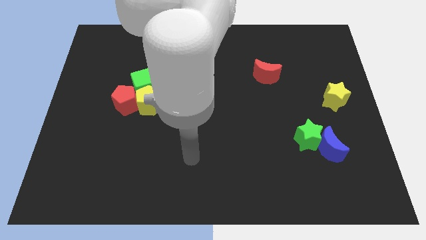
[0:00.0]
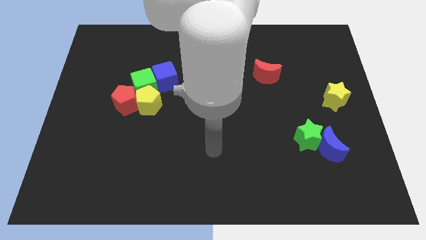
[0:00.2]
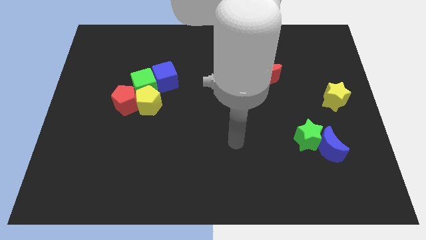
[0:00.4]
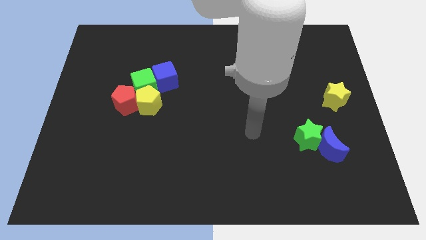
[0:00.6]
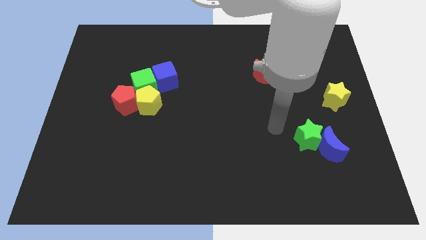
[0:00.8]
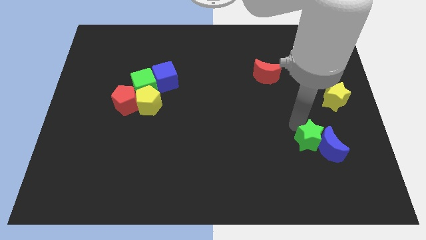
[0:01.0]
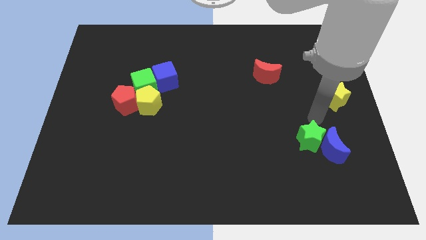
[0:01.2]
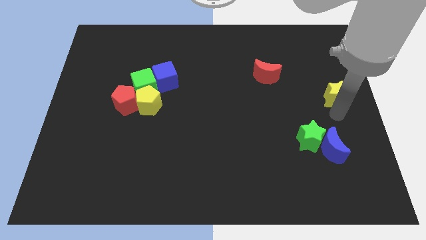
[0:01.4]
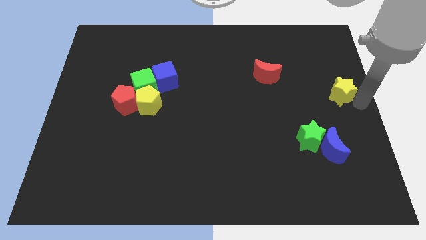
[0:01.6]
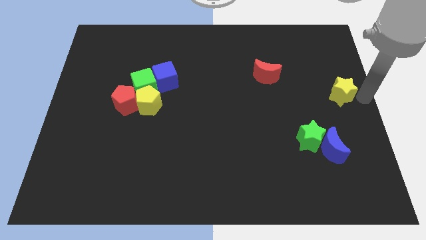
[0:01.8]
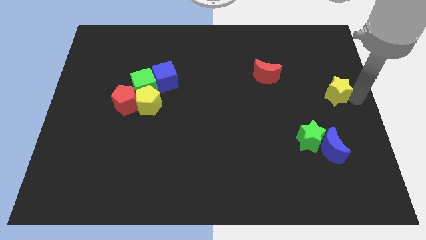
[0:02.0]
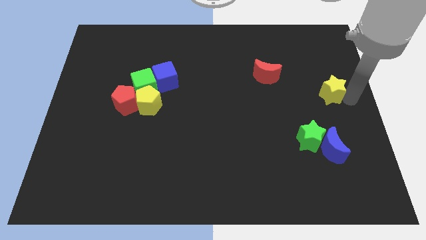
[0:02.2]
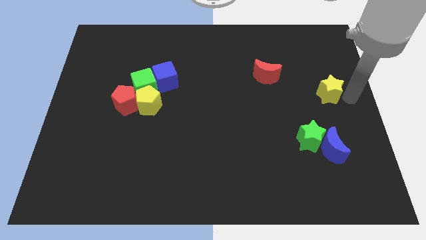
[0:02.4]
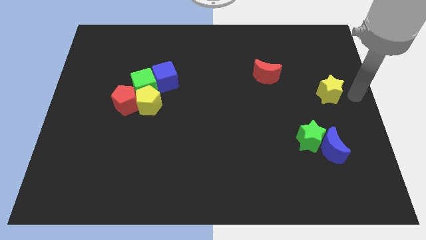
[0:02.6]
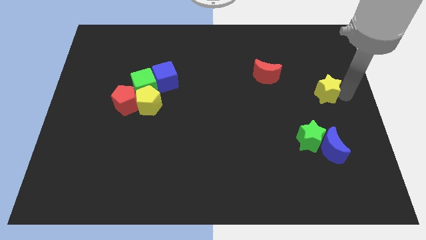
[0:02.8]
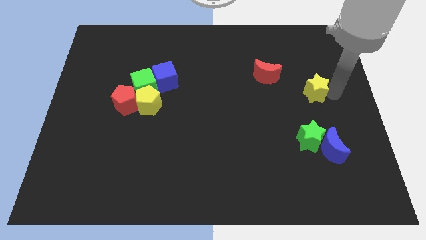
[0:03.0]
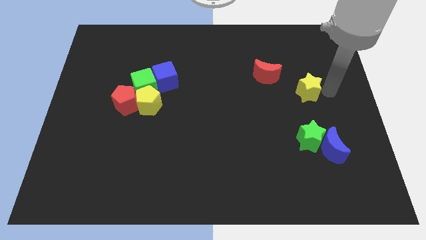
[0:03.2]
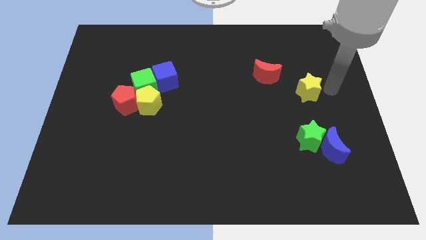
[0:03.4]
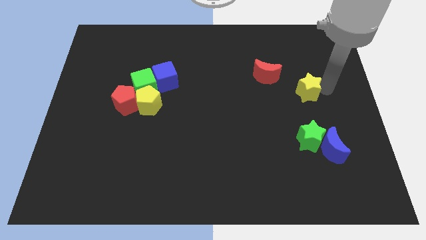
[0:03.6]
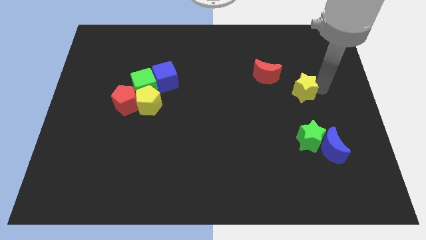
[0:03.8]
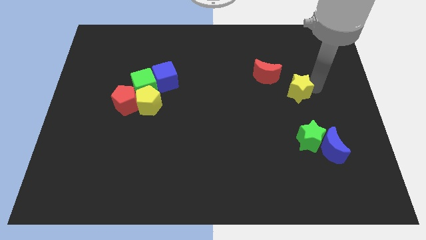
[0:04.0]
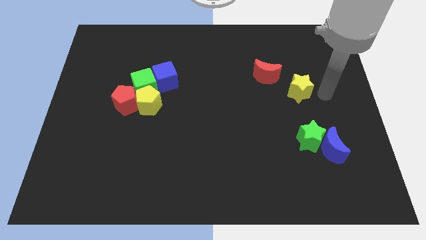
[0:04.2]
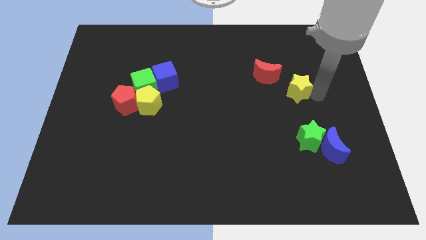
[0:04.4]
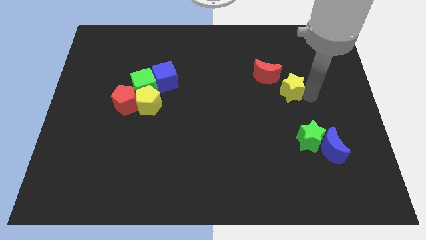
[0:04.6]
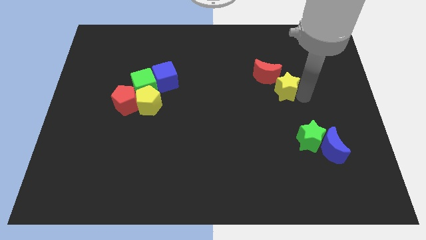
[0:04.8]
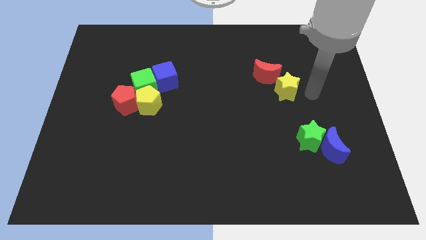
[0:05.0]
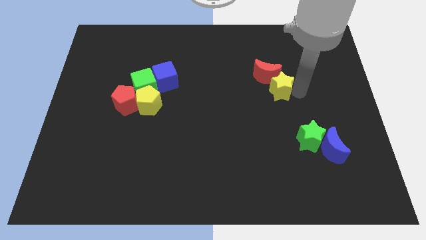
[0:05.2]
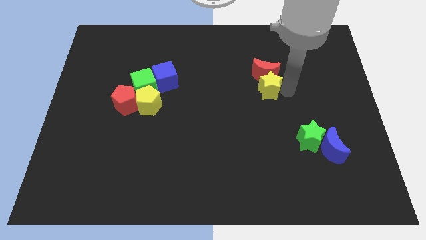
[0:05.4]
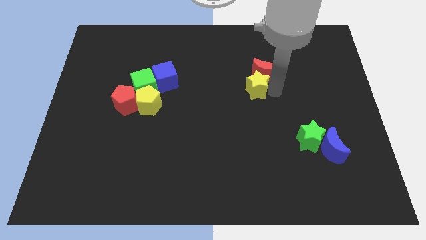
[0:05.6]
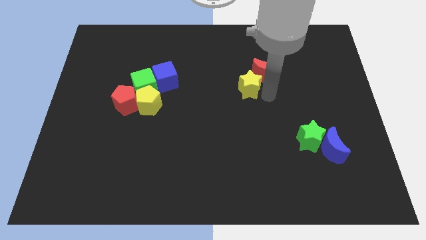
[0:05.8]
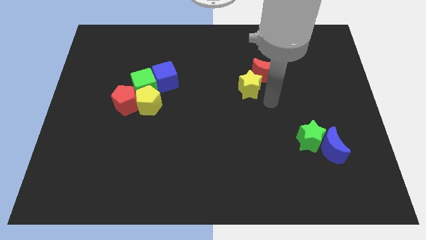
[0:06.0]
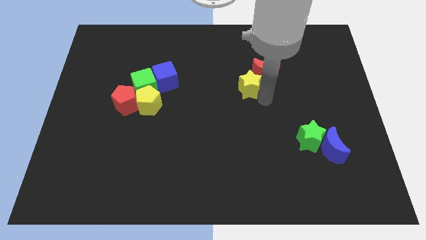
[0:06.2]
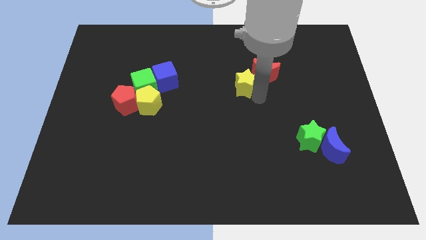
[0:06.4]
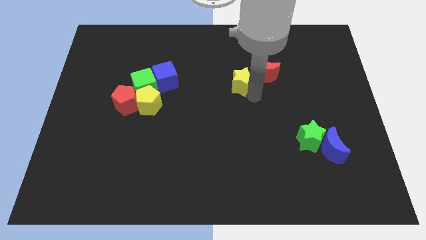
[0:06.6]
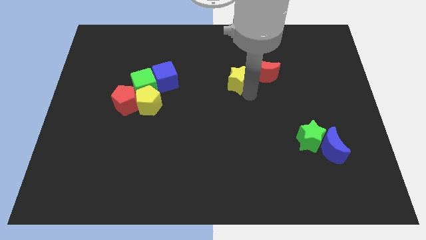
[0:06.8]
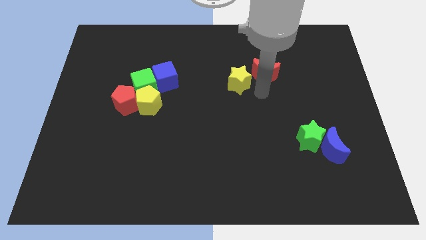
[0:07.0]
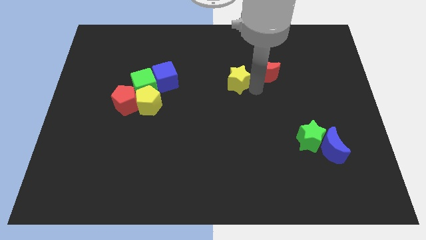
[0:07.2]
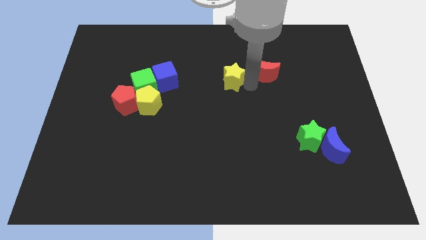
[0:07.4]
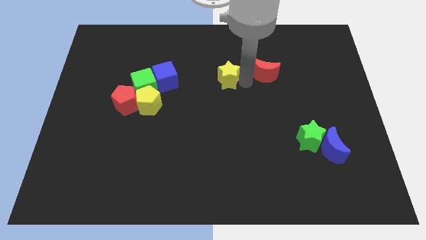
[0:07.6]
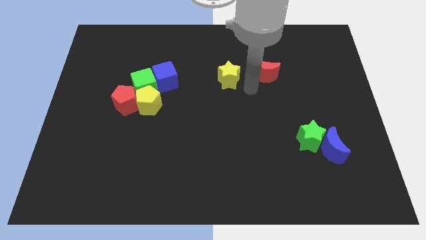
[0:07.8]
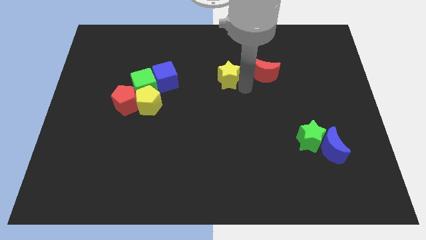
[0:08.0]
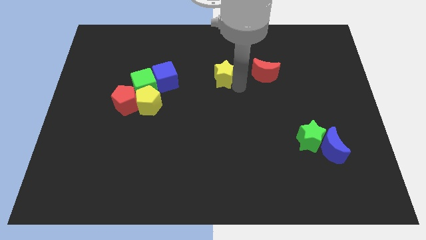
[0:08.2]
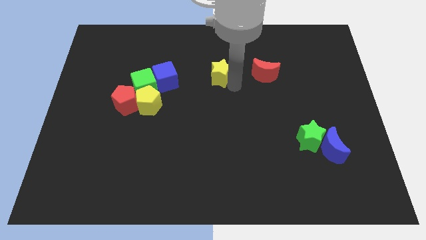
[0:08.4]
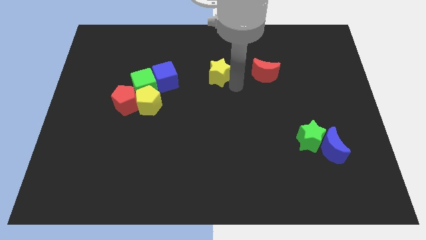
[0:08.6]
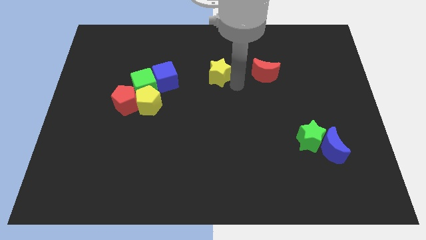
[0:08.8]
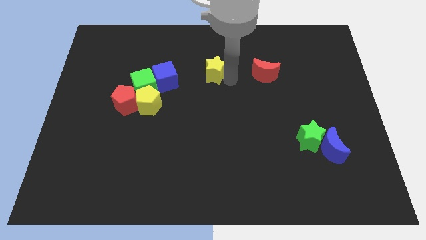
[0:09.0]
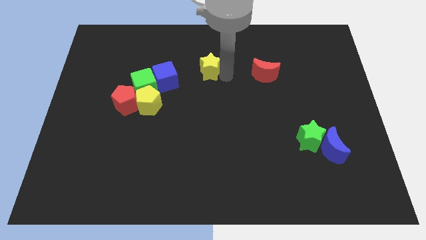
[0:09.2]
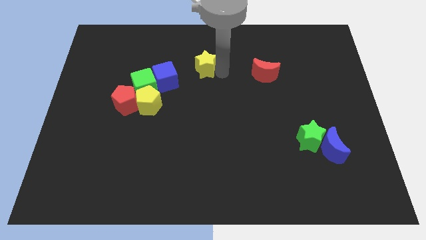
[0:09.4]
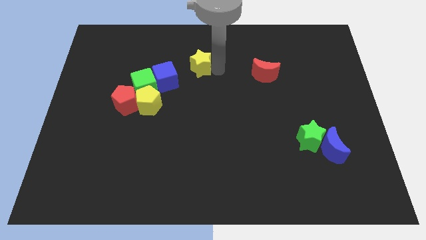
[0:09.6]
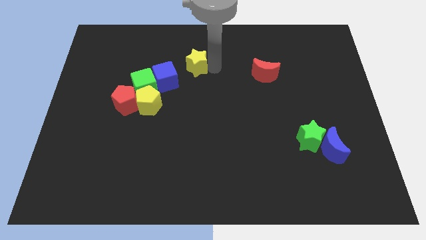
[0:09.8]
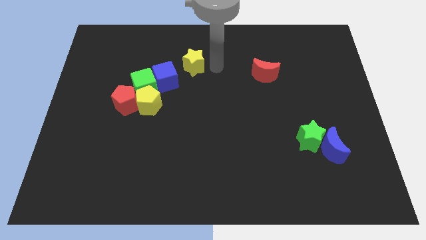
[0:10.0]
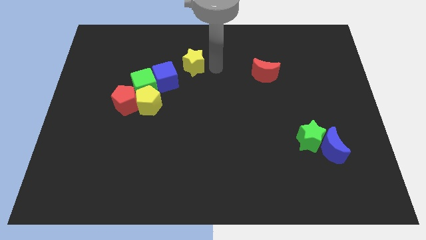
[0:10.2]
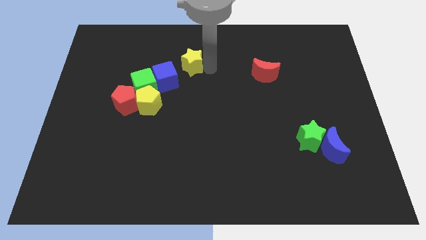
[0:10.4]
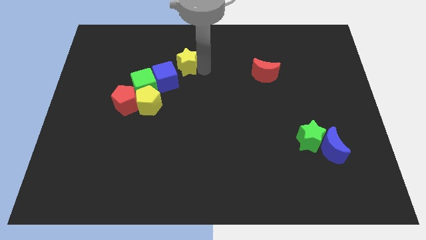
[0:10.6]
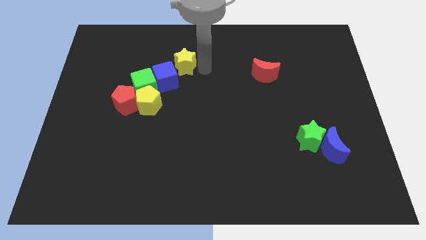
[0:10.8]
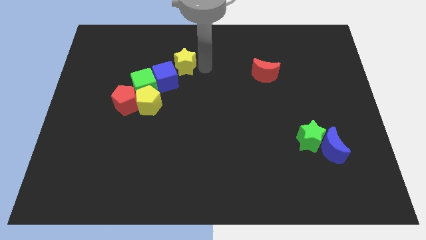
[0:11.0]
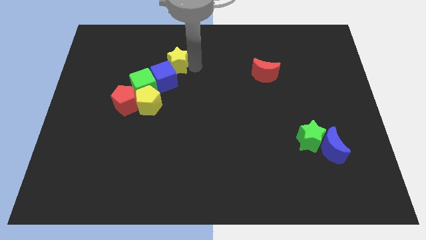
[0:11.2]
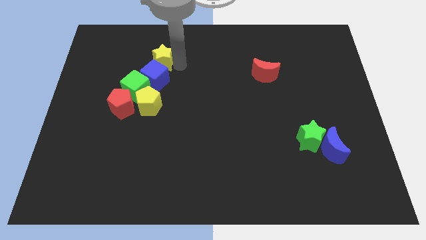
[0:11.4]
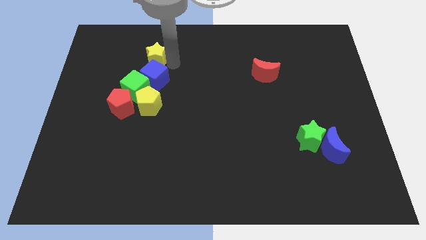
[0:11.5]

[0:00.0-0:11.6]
put the yellow star above the green cube

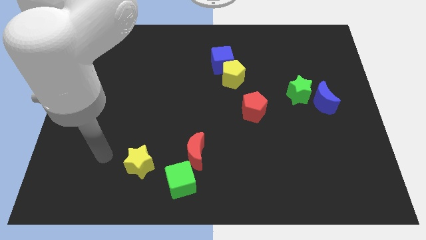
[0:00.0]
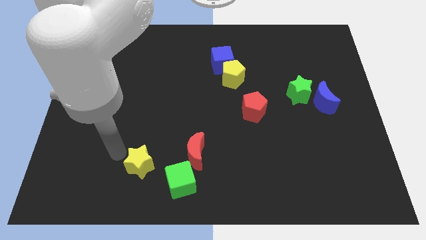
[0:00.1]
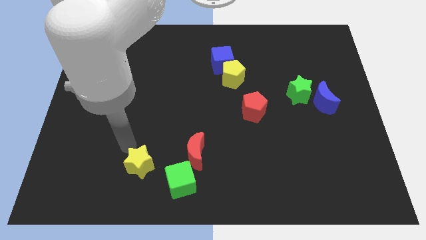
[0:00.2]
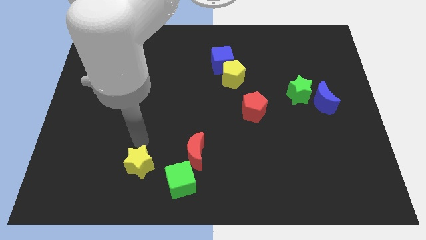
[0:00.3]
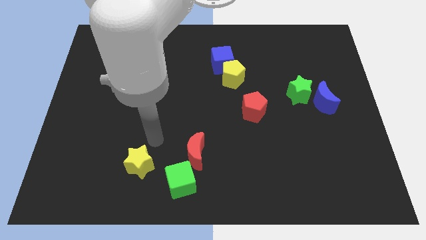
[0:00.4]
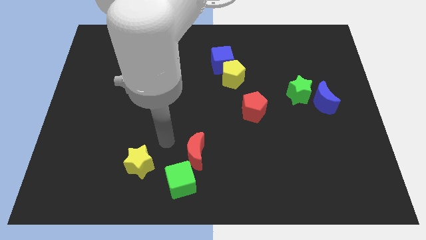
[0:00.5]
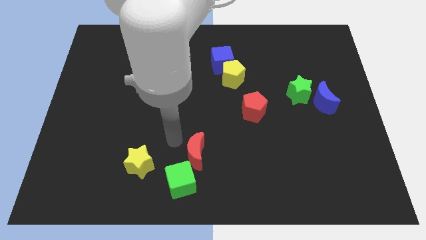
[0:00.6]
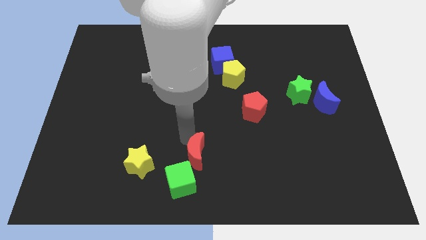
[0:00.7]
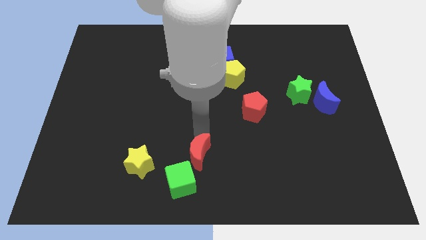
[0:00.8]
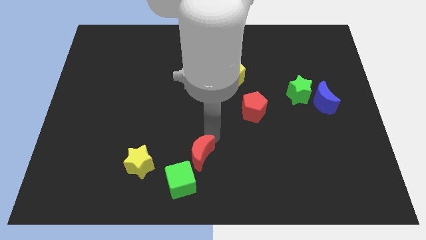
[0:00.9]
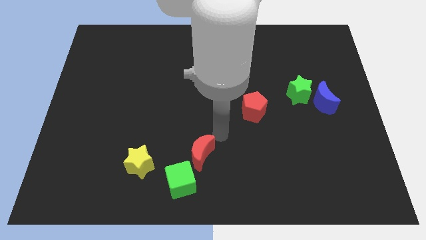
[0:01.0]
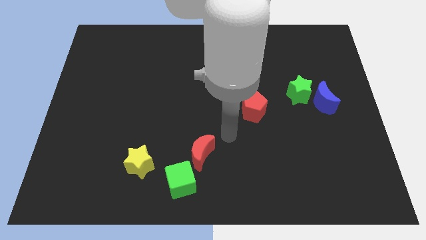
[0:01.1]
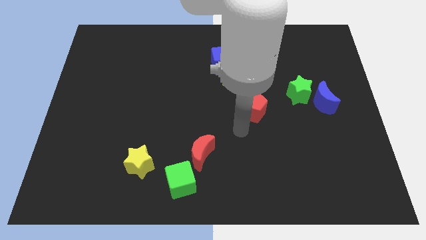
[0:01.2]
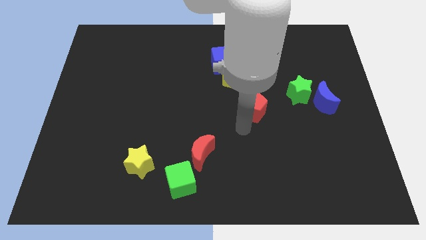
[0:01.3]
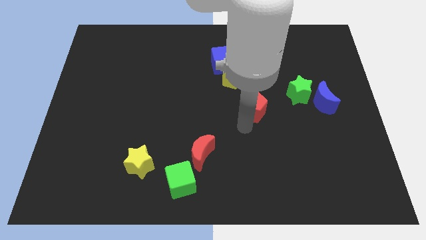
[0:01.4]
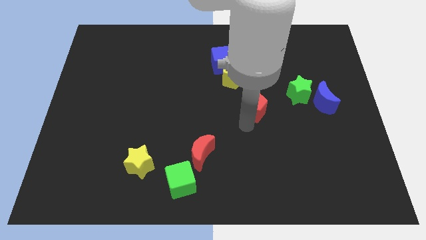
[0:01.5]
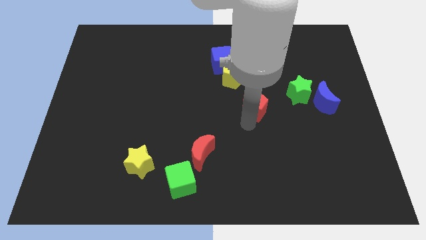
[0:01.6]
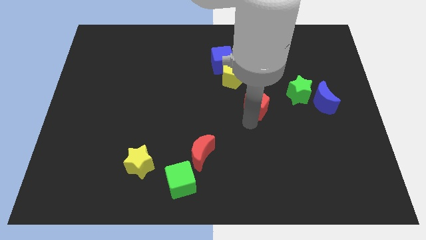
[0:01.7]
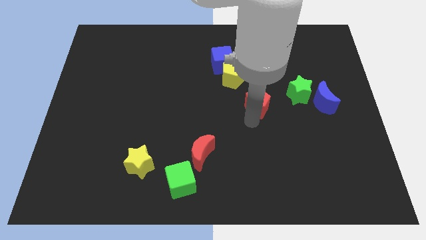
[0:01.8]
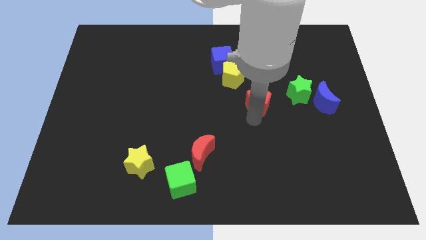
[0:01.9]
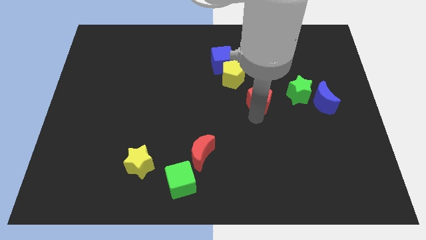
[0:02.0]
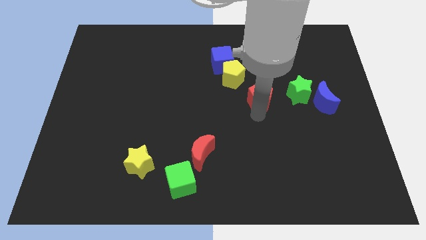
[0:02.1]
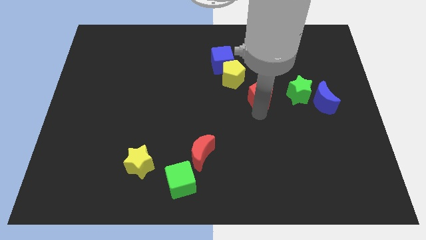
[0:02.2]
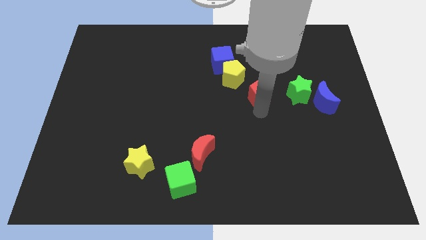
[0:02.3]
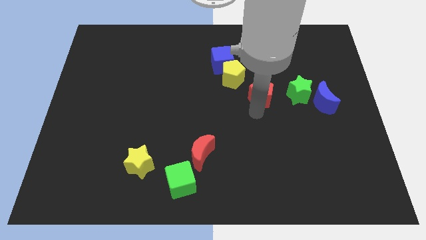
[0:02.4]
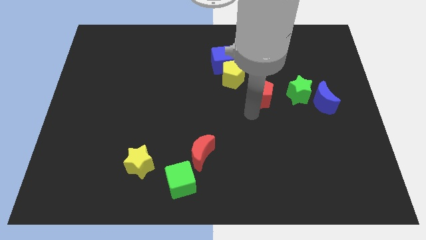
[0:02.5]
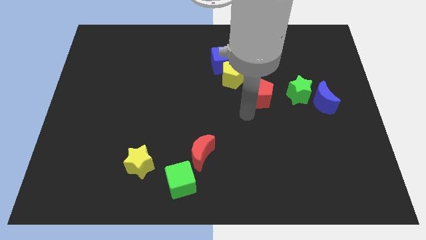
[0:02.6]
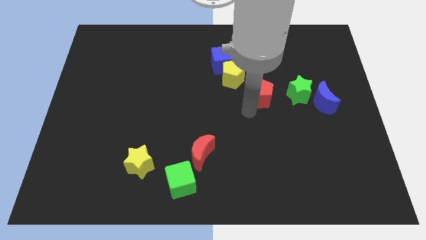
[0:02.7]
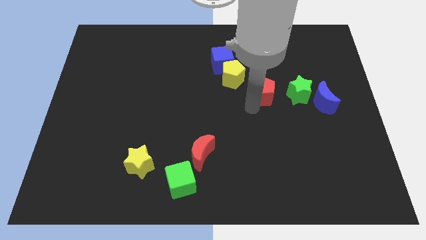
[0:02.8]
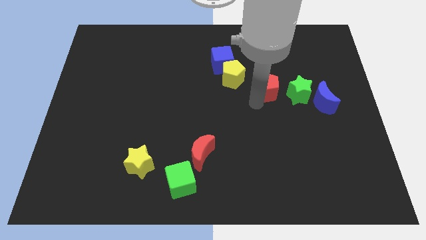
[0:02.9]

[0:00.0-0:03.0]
put the red pentagon right of the yellow pentagon
